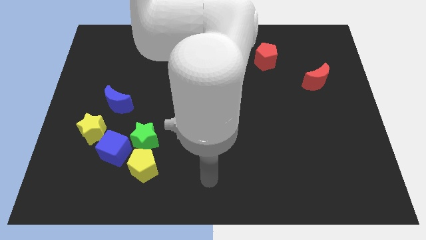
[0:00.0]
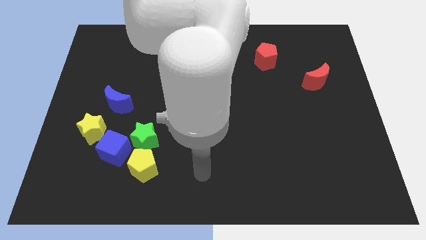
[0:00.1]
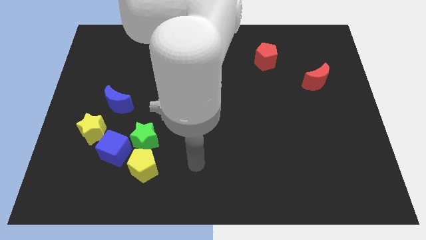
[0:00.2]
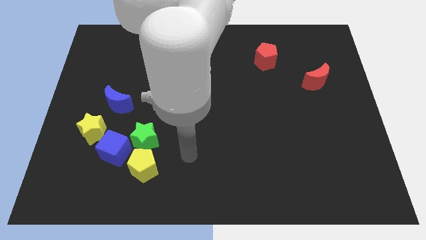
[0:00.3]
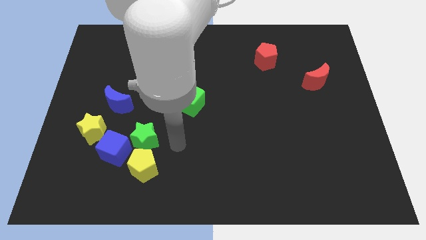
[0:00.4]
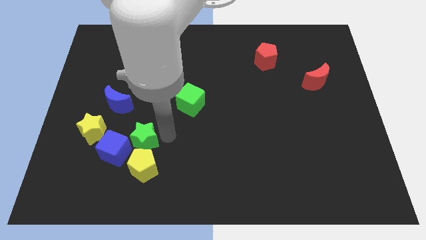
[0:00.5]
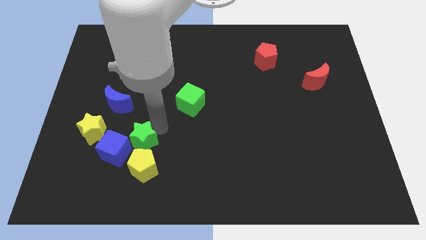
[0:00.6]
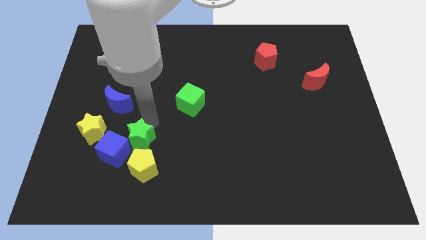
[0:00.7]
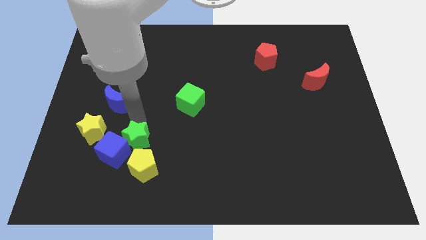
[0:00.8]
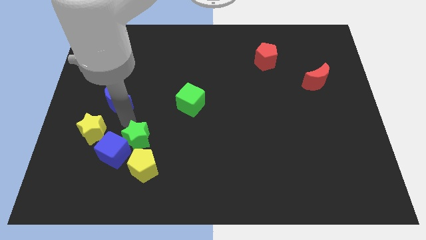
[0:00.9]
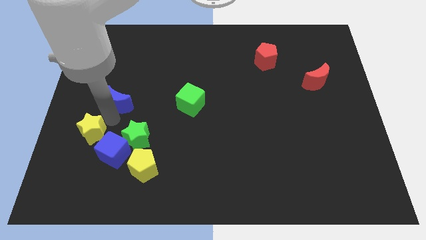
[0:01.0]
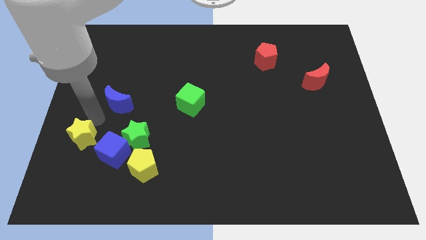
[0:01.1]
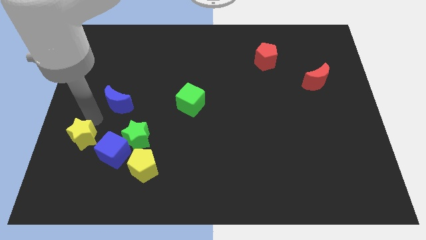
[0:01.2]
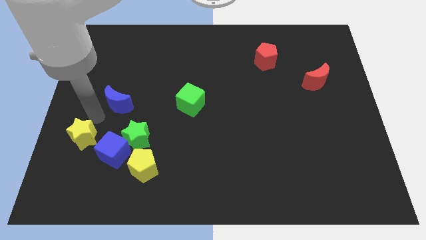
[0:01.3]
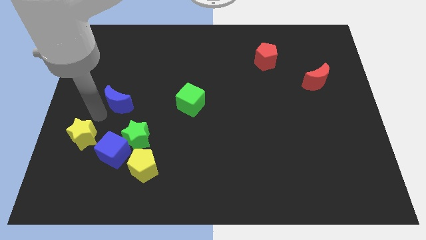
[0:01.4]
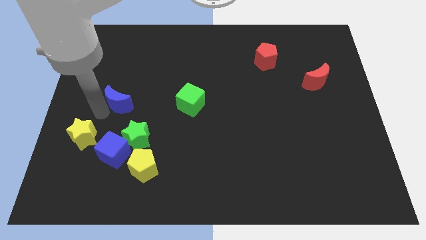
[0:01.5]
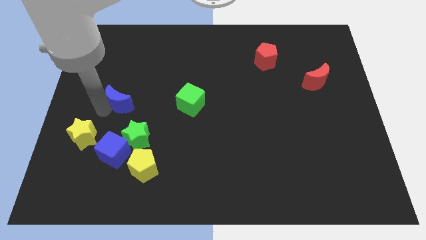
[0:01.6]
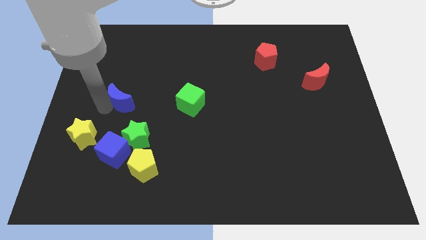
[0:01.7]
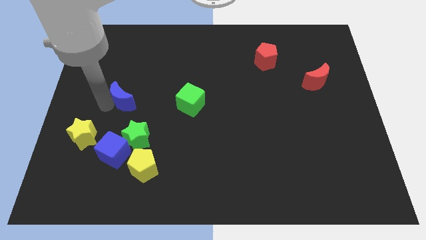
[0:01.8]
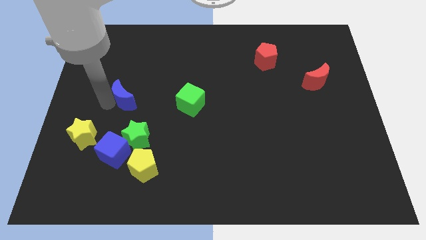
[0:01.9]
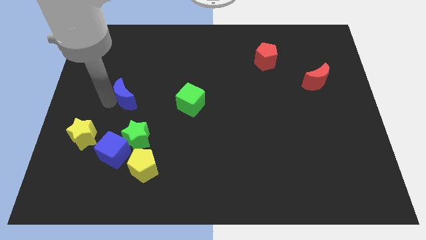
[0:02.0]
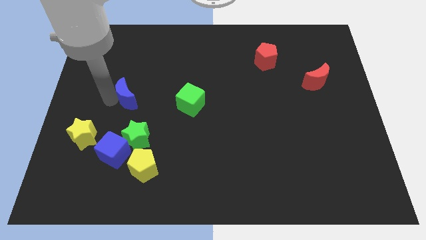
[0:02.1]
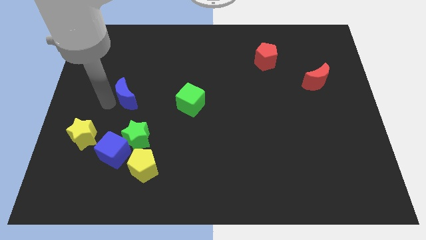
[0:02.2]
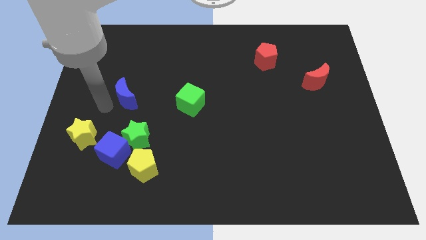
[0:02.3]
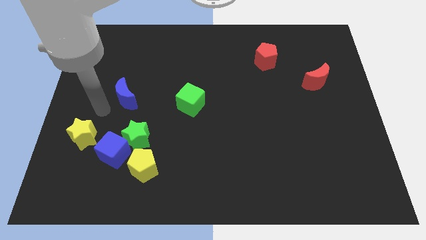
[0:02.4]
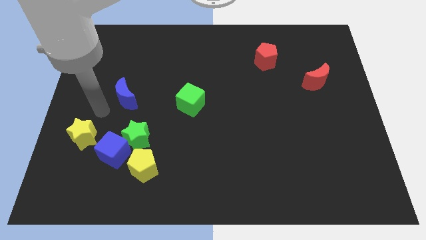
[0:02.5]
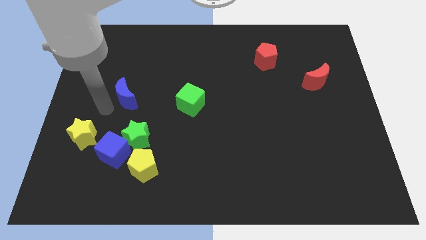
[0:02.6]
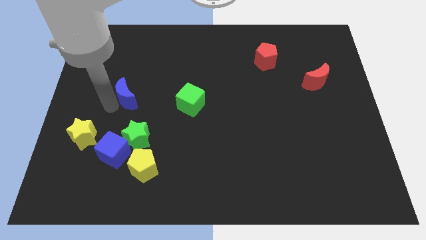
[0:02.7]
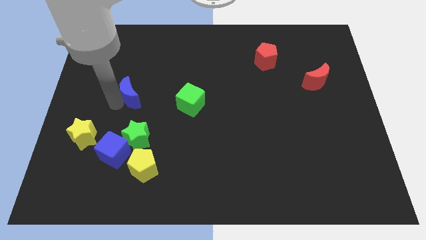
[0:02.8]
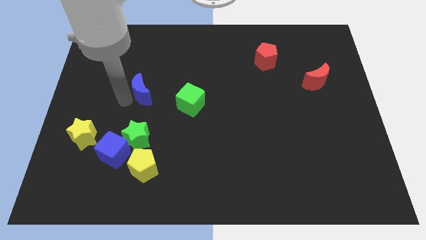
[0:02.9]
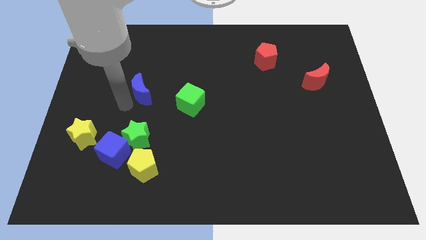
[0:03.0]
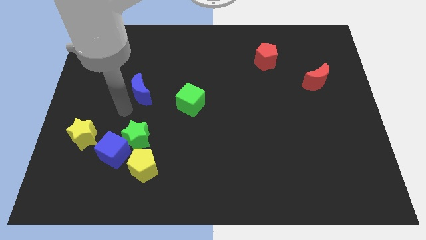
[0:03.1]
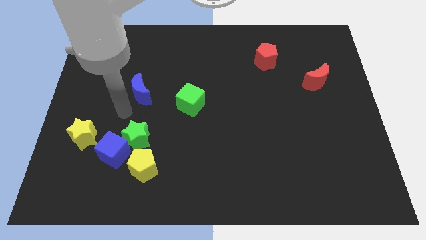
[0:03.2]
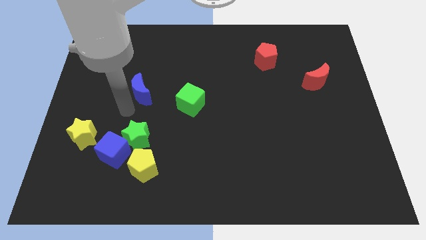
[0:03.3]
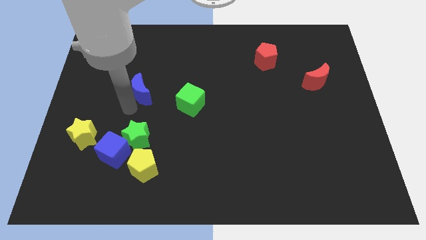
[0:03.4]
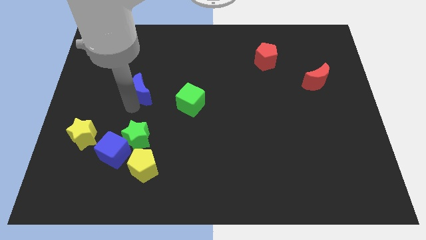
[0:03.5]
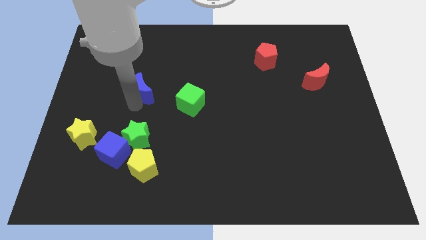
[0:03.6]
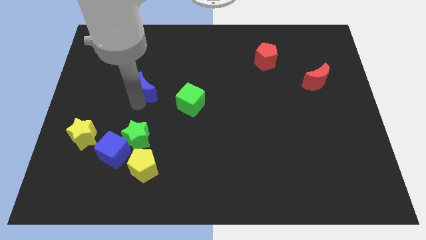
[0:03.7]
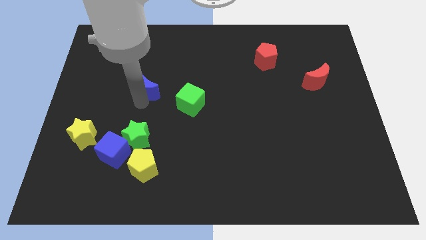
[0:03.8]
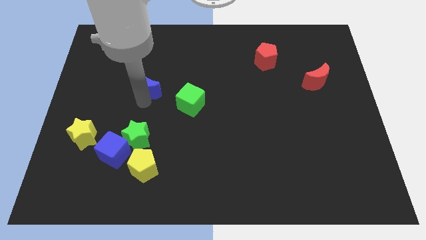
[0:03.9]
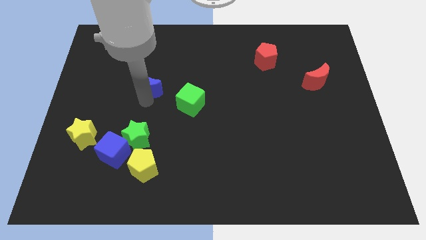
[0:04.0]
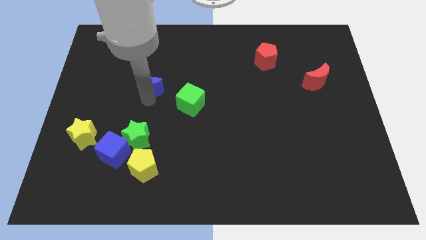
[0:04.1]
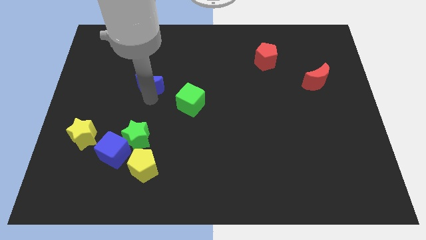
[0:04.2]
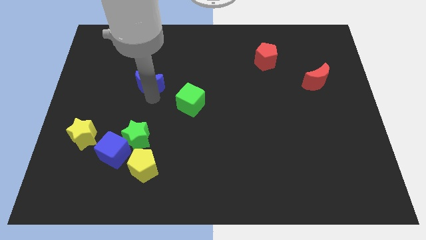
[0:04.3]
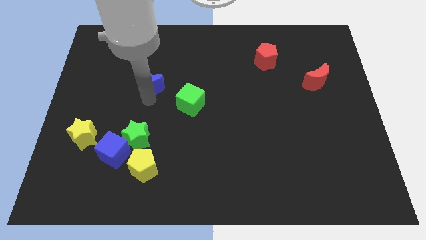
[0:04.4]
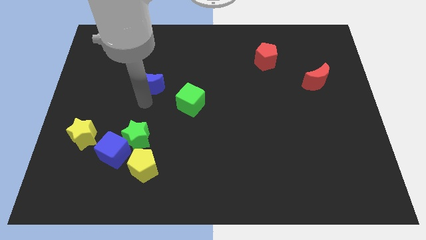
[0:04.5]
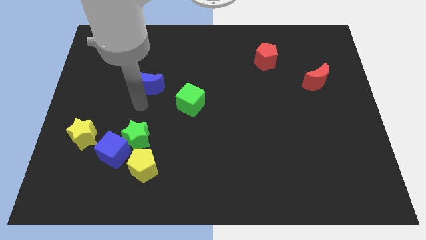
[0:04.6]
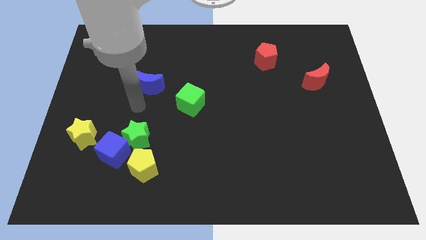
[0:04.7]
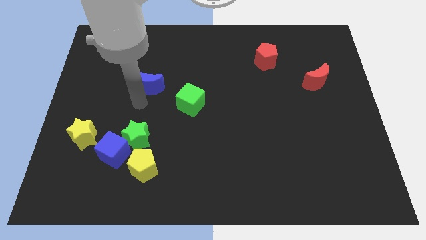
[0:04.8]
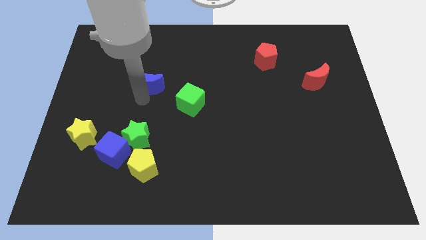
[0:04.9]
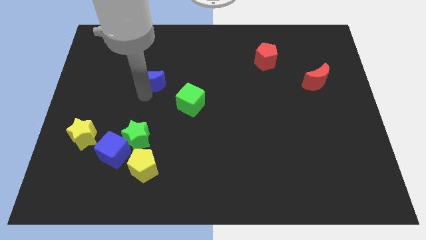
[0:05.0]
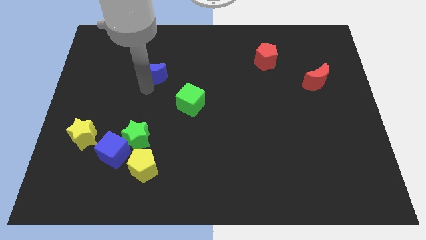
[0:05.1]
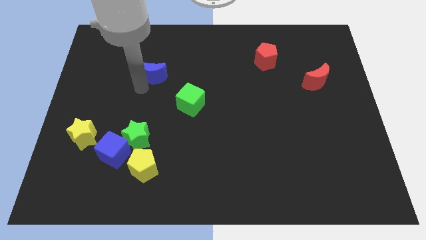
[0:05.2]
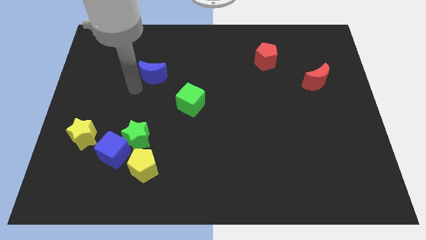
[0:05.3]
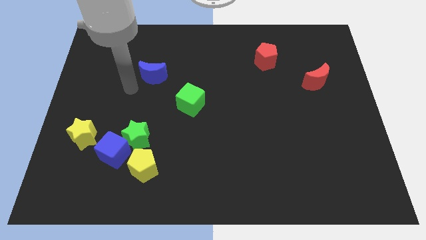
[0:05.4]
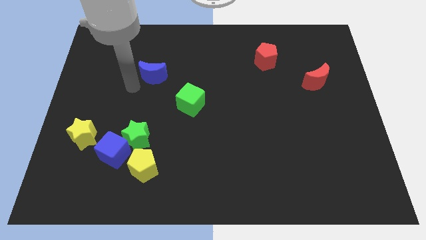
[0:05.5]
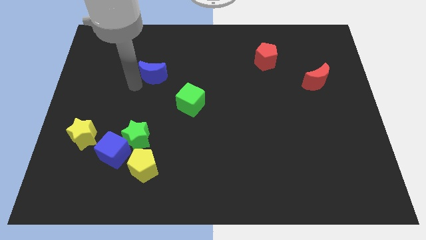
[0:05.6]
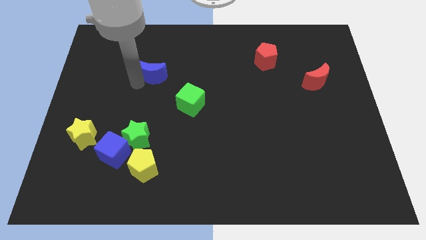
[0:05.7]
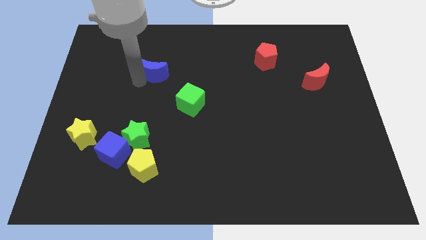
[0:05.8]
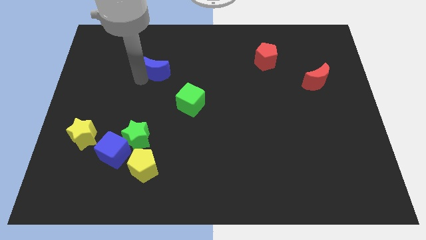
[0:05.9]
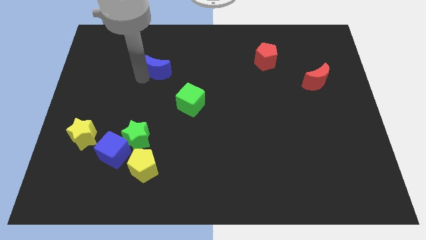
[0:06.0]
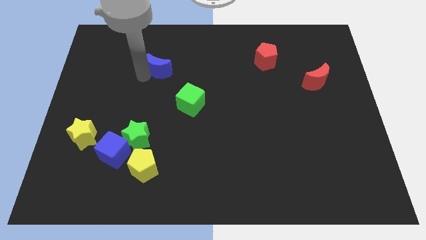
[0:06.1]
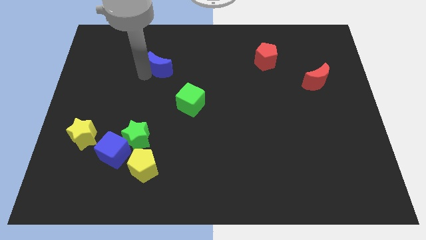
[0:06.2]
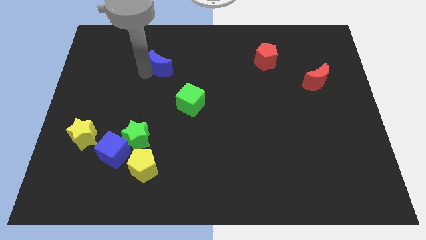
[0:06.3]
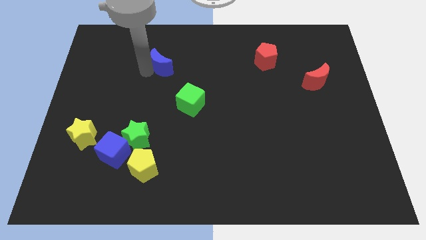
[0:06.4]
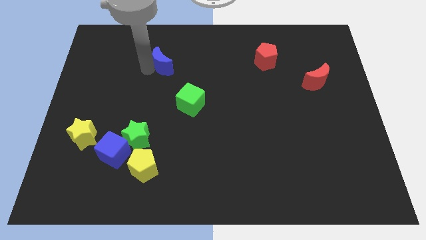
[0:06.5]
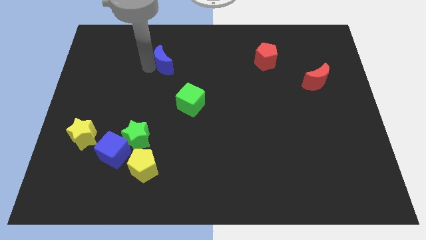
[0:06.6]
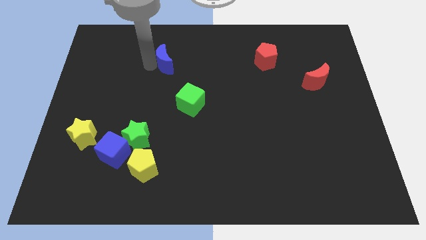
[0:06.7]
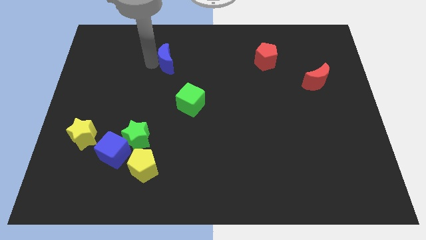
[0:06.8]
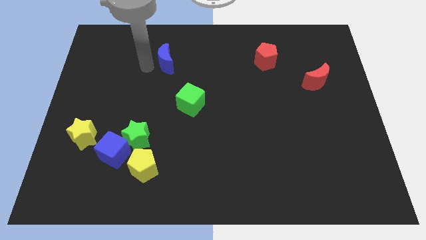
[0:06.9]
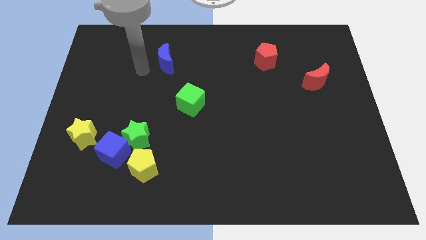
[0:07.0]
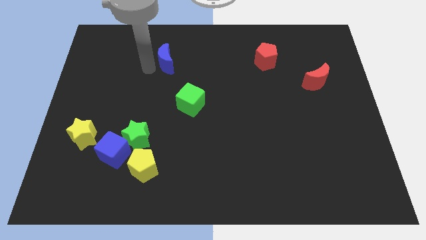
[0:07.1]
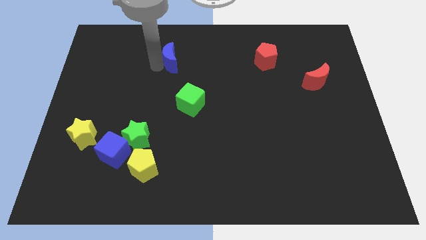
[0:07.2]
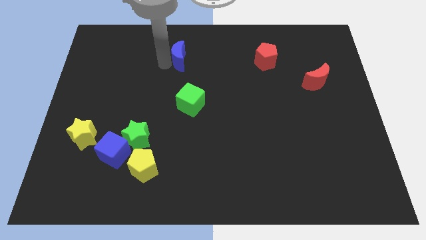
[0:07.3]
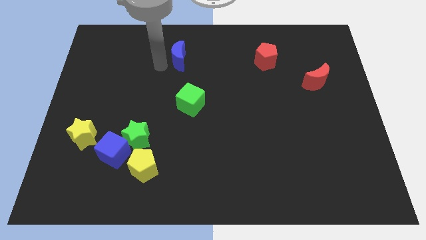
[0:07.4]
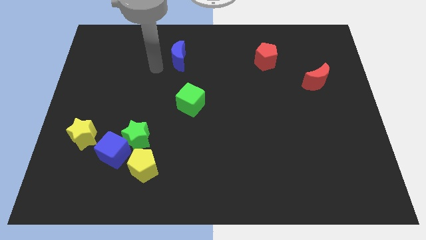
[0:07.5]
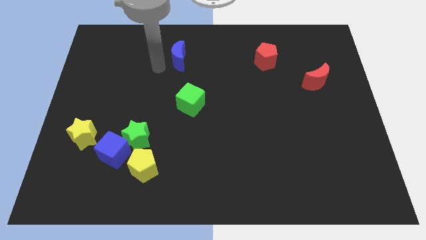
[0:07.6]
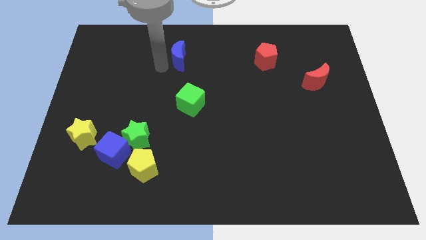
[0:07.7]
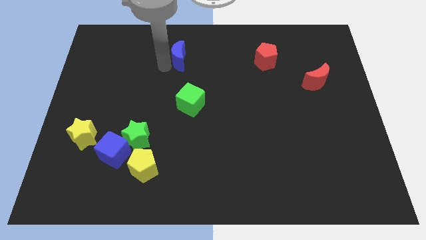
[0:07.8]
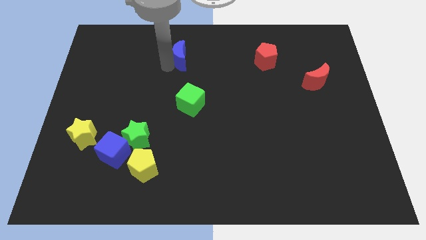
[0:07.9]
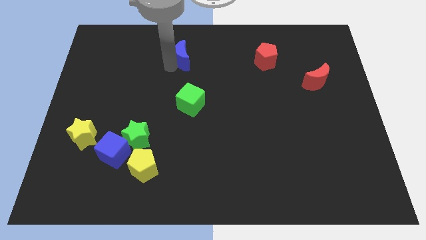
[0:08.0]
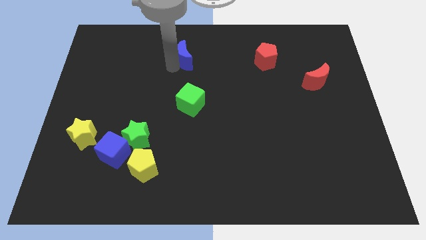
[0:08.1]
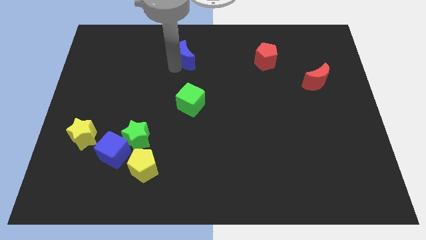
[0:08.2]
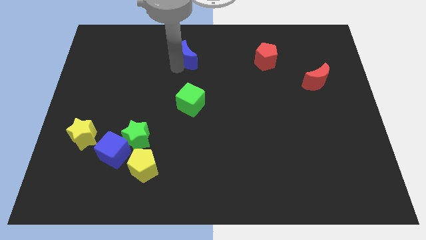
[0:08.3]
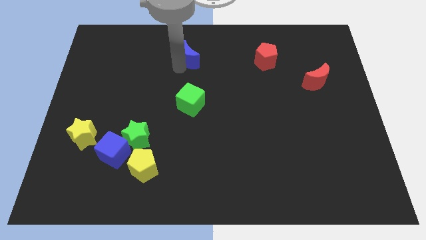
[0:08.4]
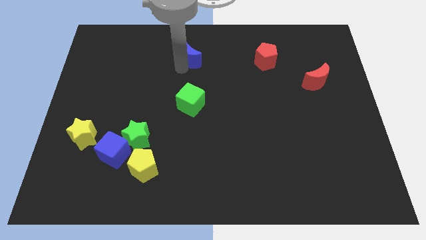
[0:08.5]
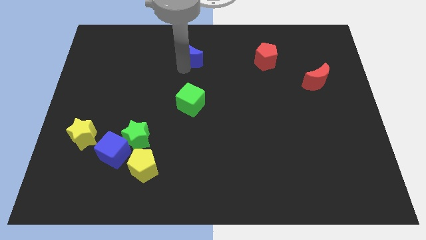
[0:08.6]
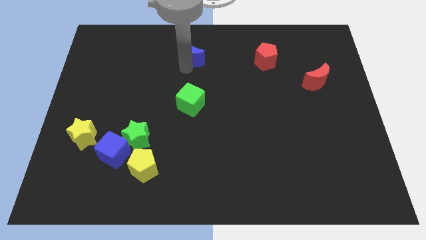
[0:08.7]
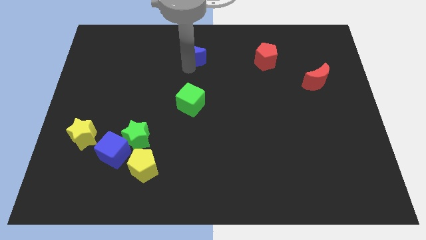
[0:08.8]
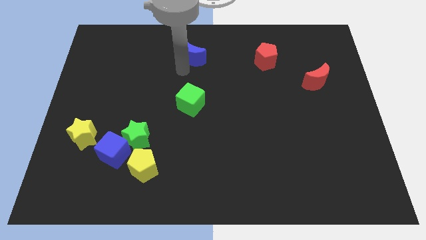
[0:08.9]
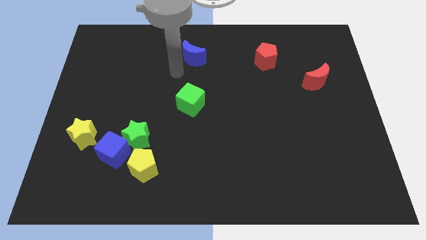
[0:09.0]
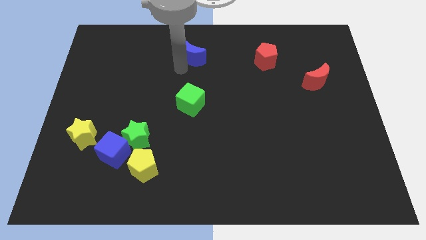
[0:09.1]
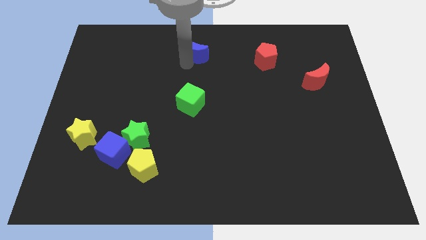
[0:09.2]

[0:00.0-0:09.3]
slide the blue moon to the top side
